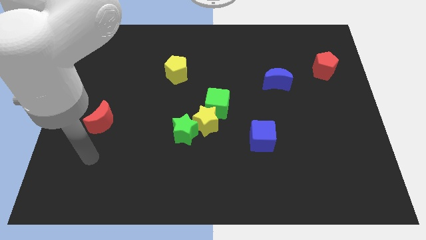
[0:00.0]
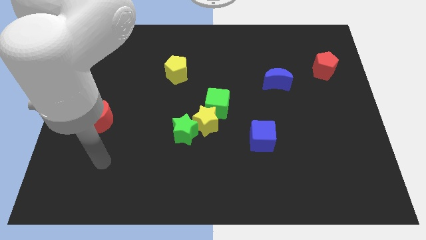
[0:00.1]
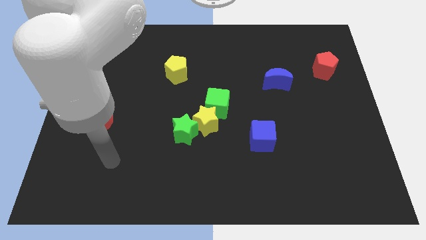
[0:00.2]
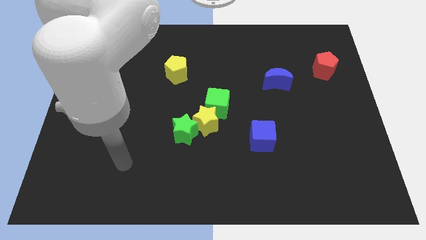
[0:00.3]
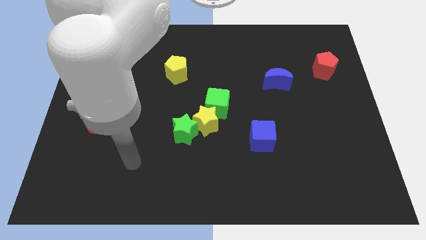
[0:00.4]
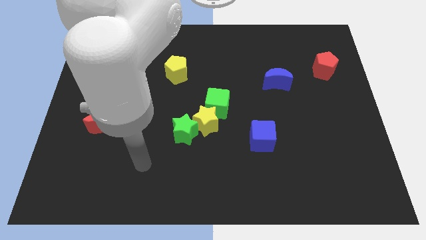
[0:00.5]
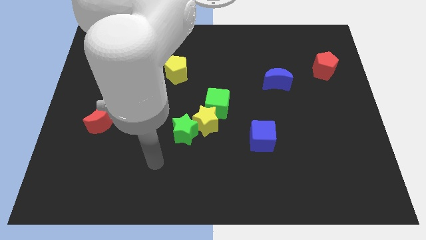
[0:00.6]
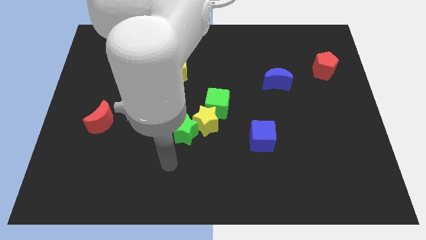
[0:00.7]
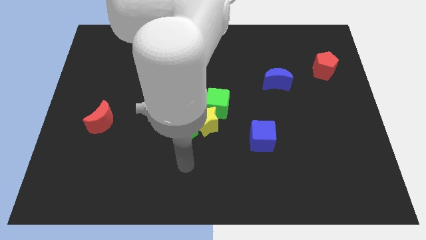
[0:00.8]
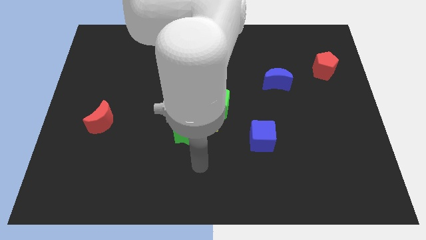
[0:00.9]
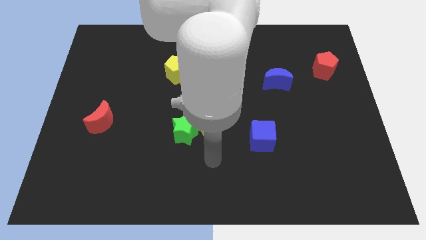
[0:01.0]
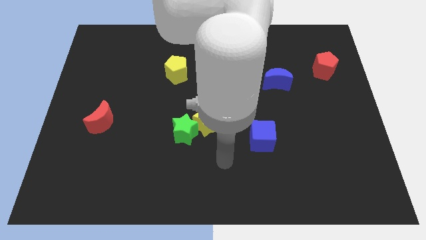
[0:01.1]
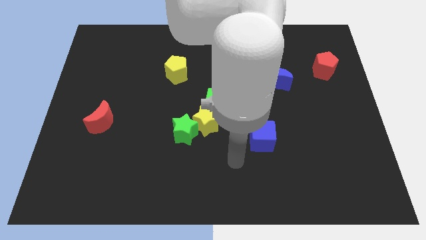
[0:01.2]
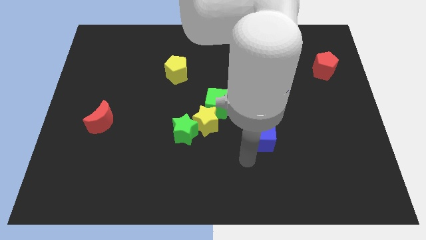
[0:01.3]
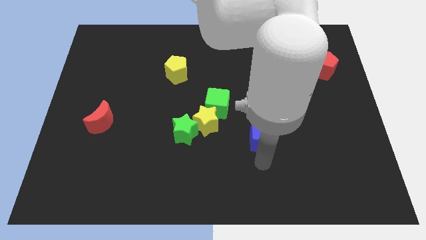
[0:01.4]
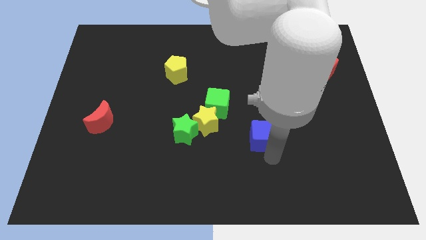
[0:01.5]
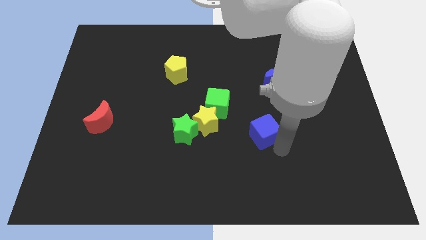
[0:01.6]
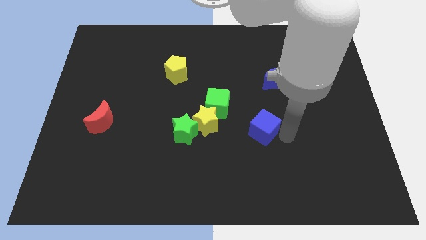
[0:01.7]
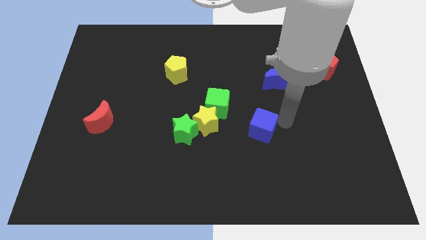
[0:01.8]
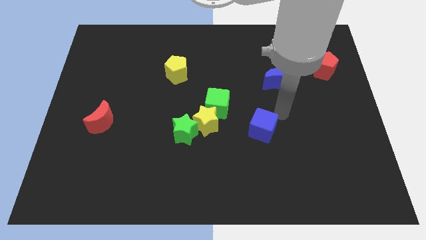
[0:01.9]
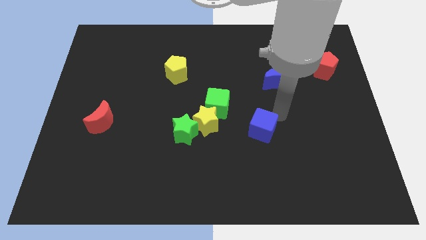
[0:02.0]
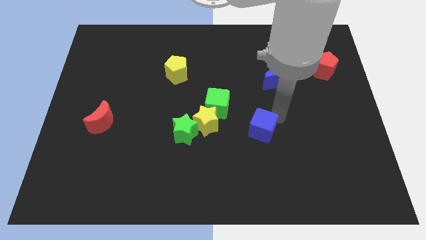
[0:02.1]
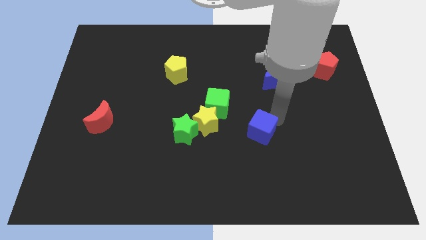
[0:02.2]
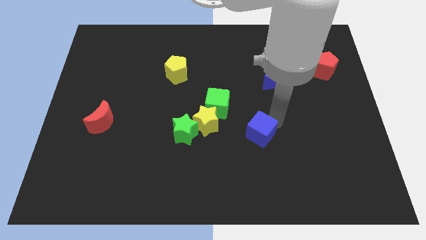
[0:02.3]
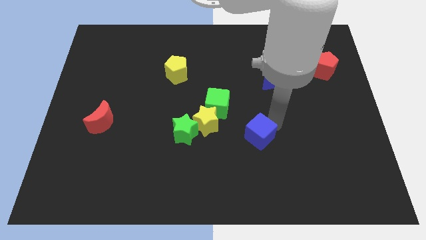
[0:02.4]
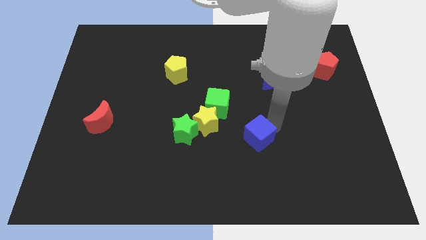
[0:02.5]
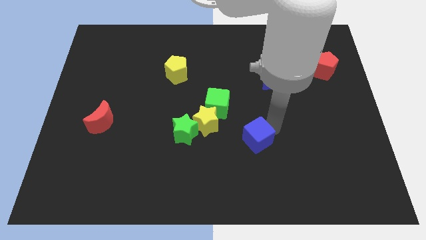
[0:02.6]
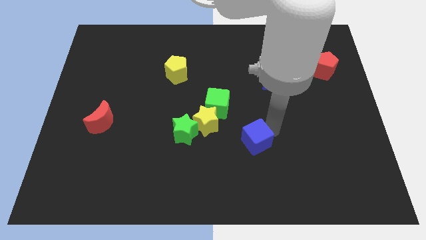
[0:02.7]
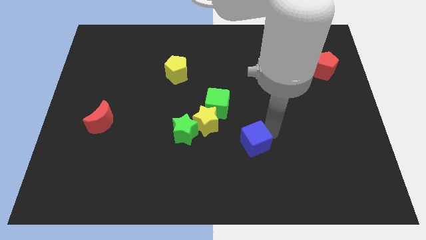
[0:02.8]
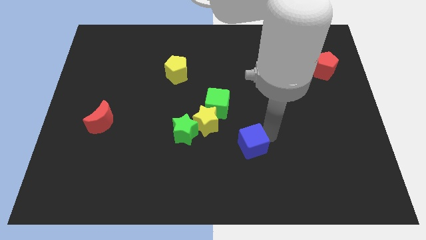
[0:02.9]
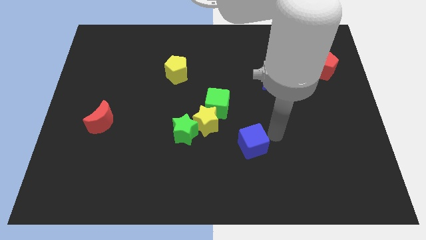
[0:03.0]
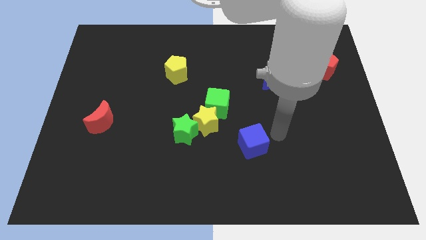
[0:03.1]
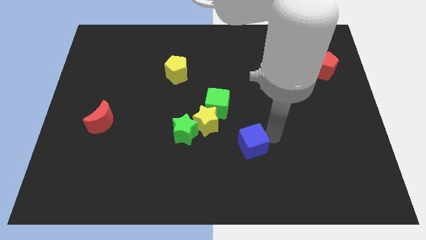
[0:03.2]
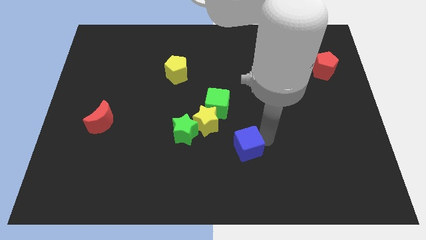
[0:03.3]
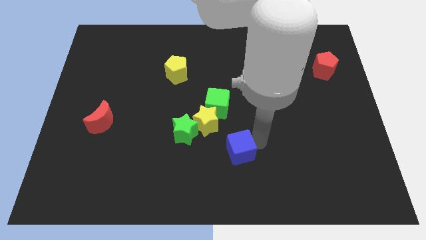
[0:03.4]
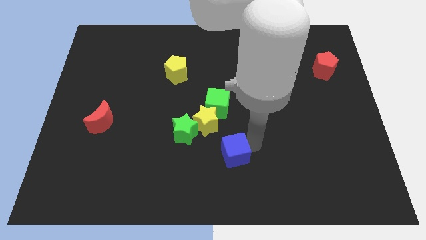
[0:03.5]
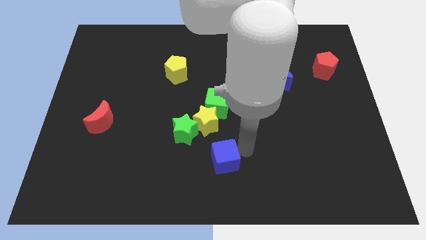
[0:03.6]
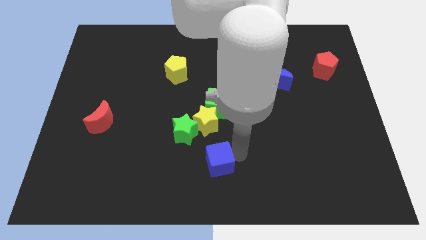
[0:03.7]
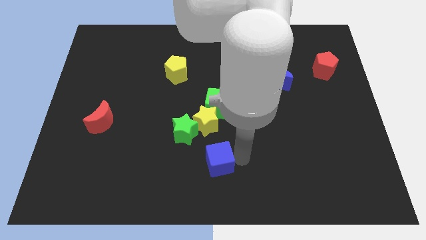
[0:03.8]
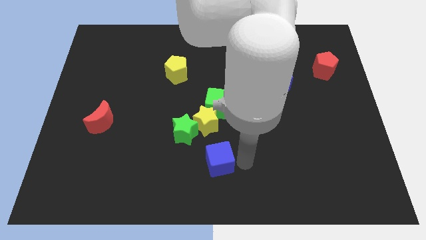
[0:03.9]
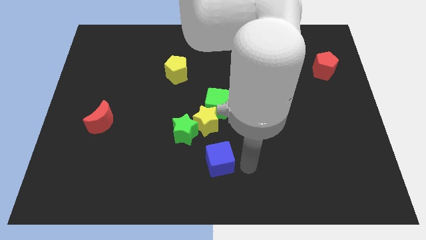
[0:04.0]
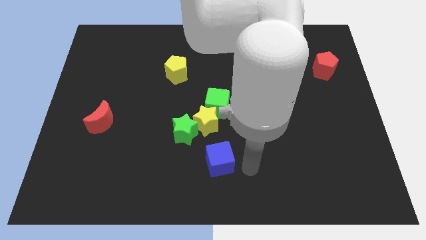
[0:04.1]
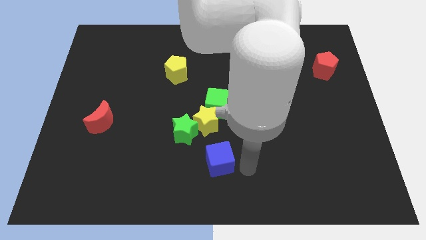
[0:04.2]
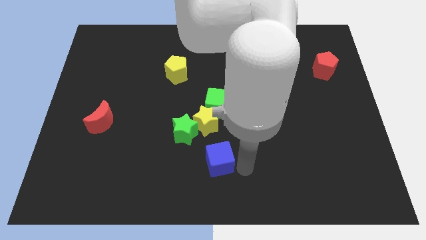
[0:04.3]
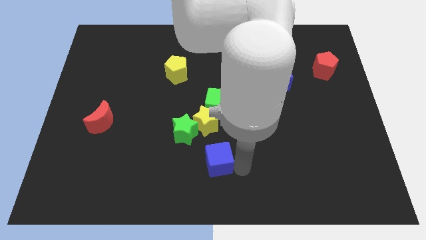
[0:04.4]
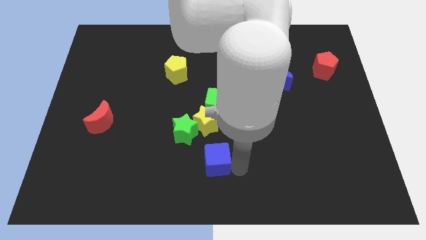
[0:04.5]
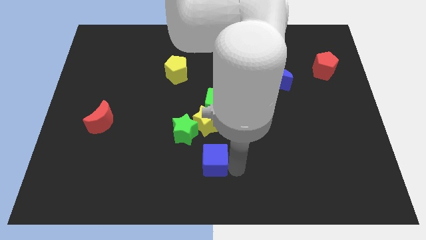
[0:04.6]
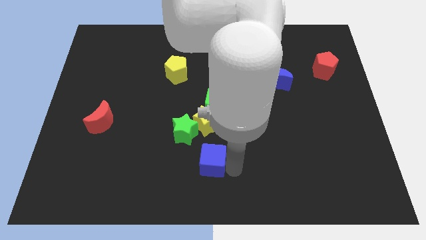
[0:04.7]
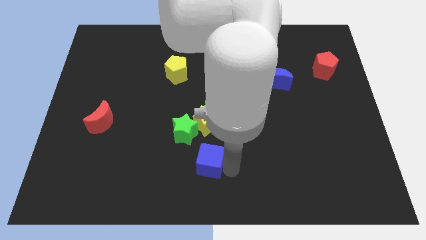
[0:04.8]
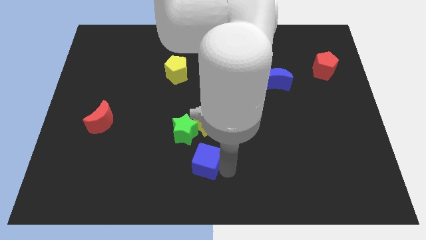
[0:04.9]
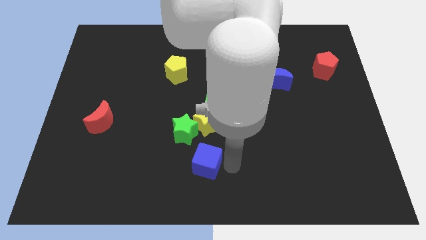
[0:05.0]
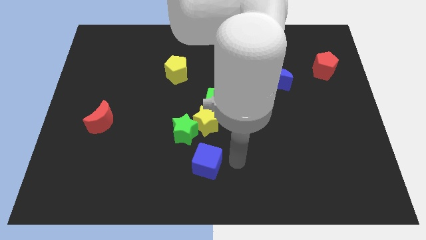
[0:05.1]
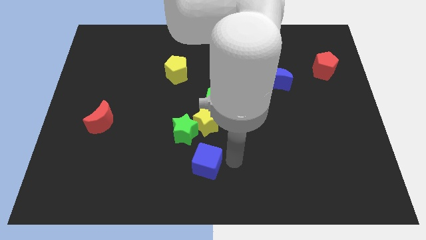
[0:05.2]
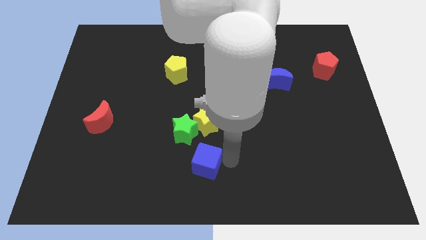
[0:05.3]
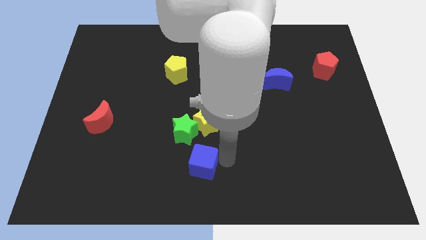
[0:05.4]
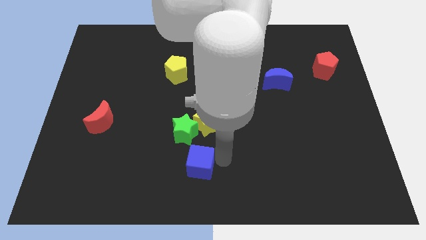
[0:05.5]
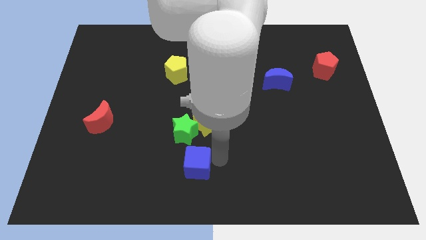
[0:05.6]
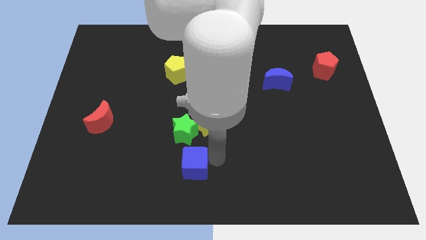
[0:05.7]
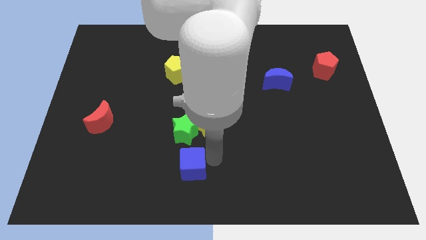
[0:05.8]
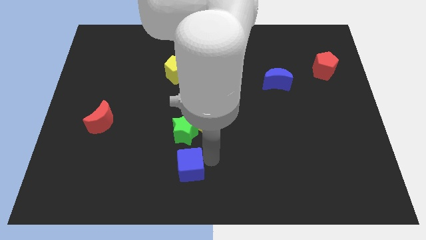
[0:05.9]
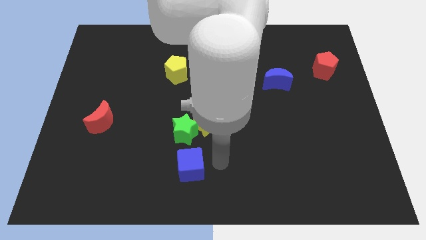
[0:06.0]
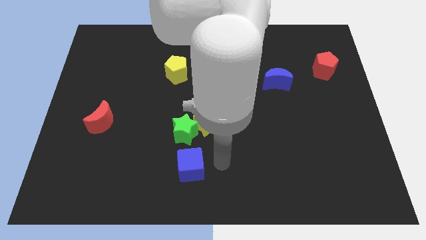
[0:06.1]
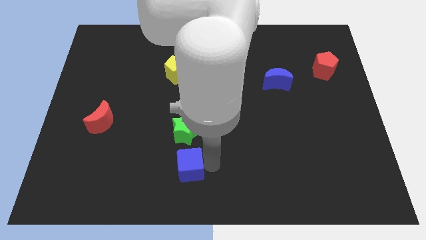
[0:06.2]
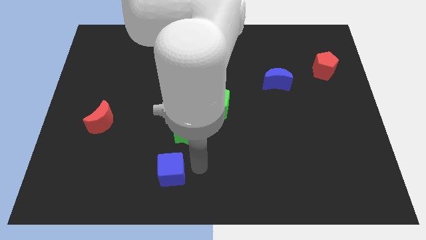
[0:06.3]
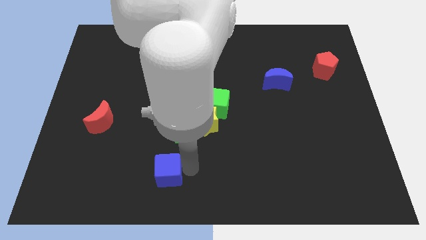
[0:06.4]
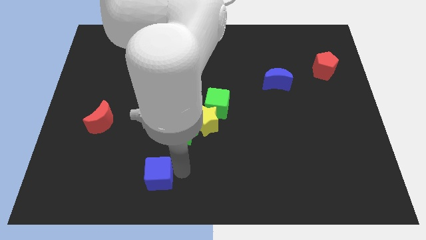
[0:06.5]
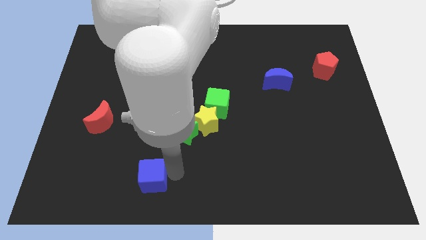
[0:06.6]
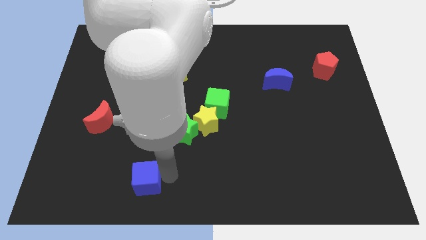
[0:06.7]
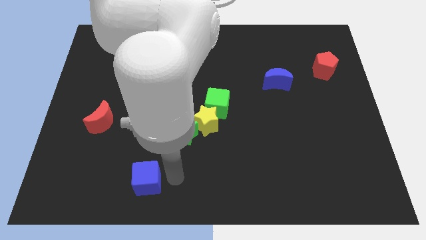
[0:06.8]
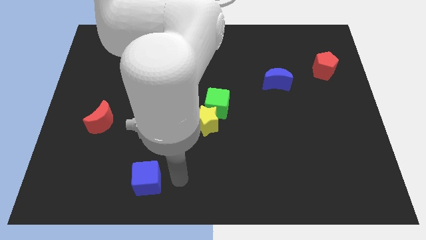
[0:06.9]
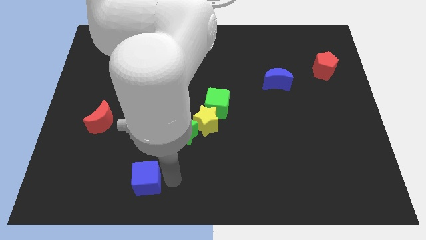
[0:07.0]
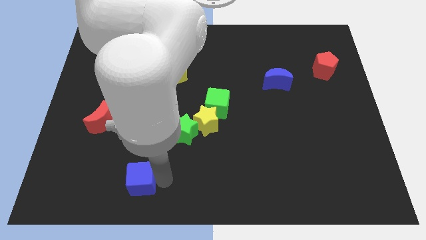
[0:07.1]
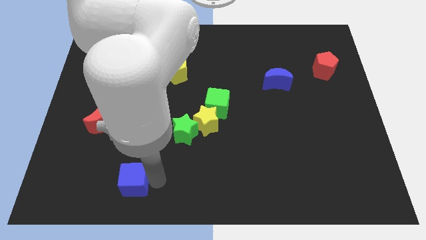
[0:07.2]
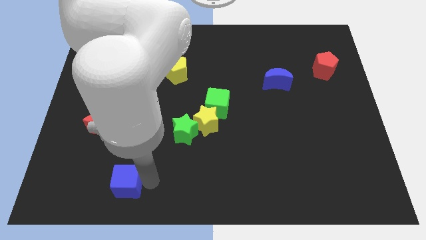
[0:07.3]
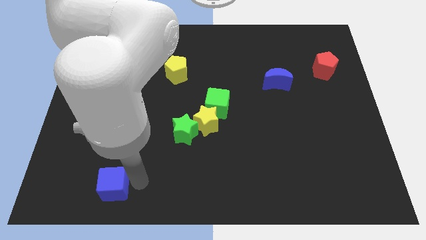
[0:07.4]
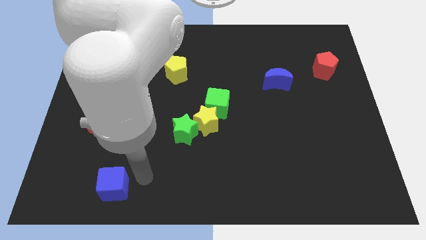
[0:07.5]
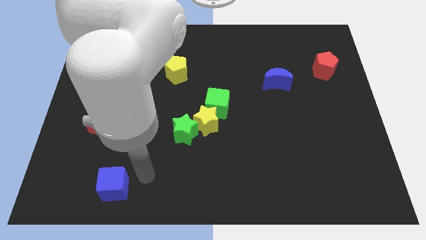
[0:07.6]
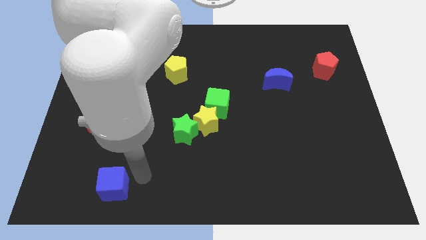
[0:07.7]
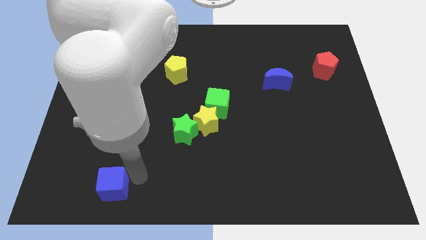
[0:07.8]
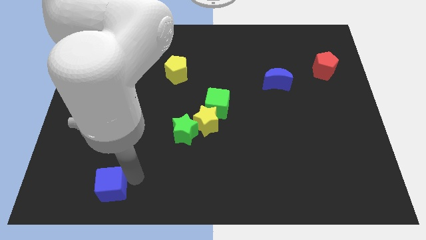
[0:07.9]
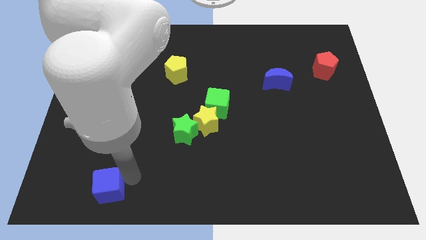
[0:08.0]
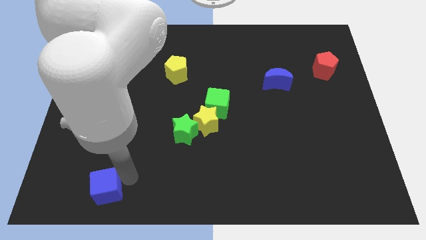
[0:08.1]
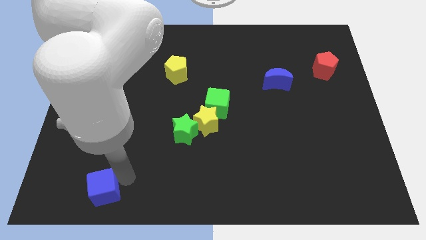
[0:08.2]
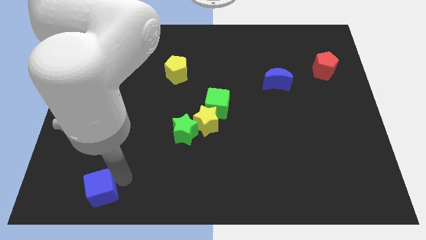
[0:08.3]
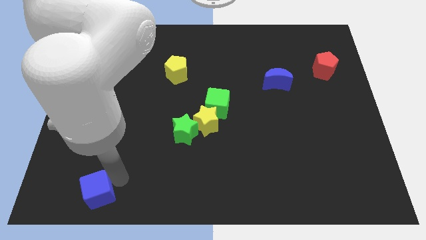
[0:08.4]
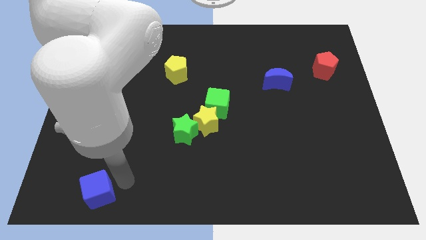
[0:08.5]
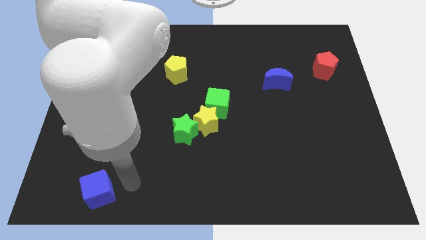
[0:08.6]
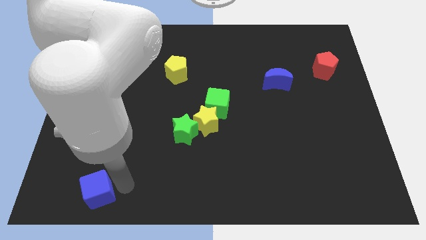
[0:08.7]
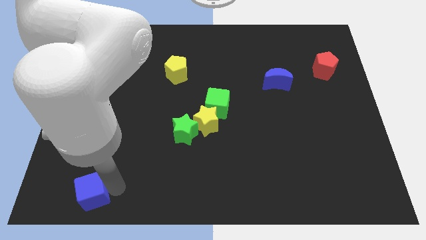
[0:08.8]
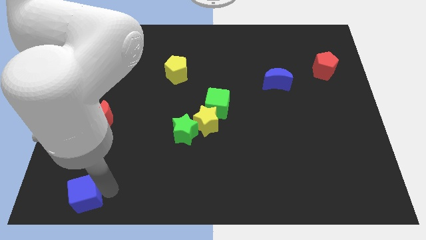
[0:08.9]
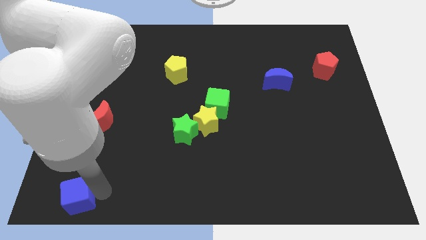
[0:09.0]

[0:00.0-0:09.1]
move the blue cube to the lower left corner
